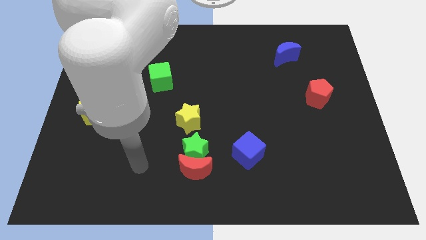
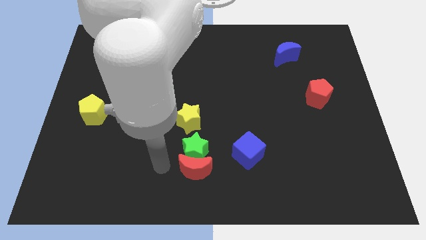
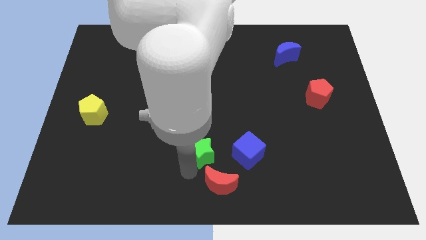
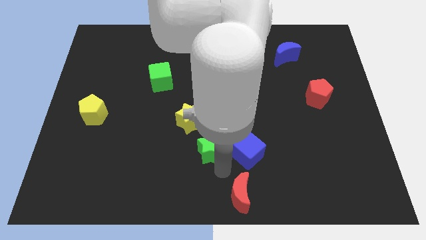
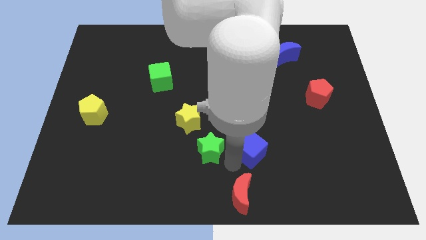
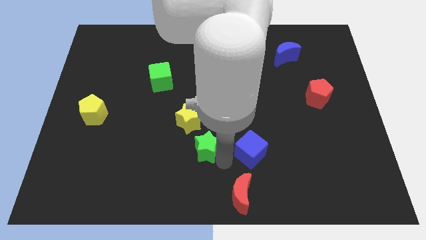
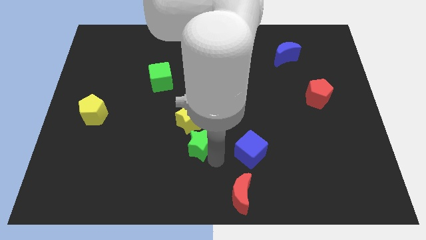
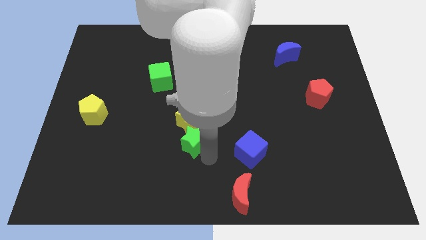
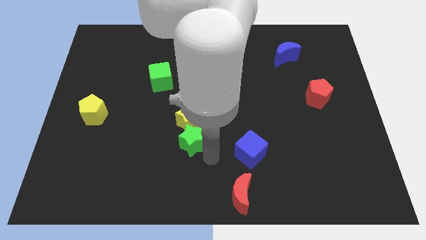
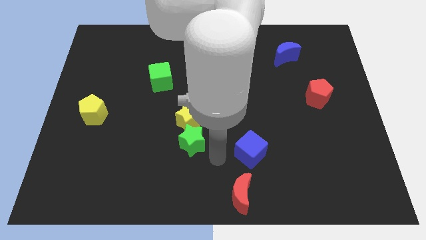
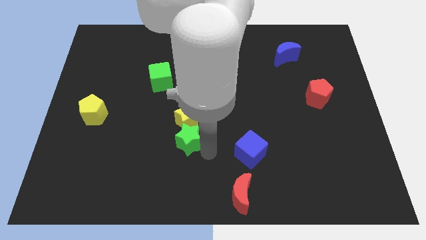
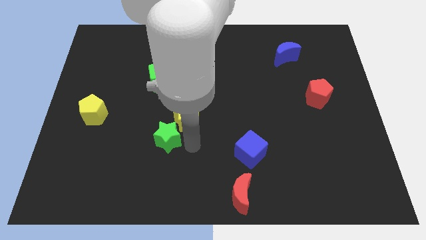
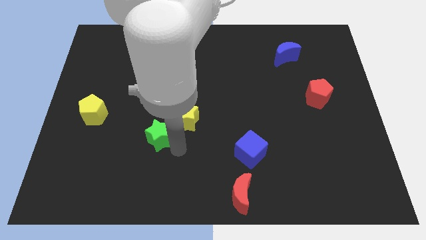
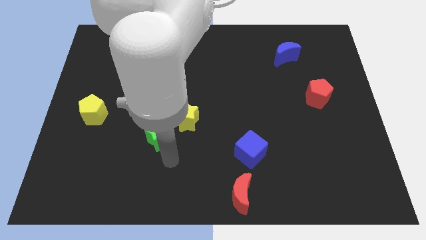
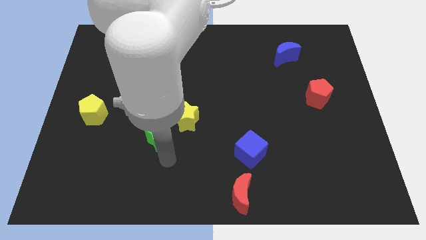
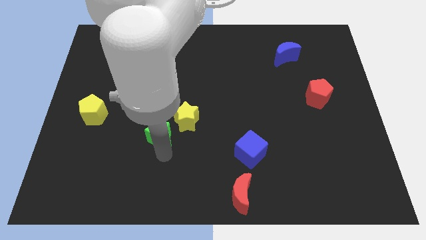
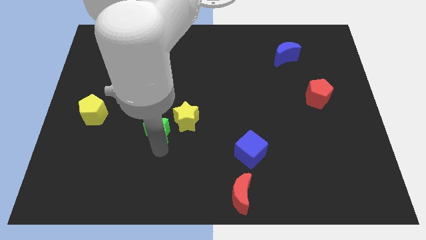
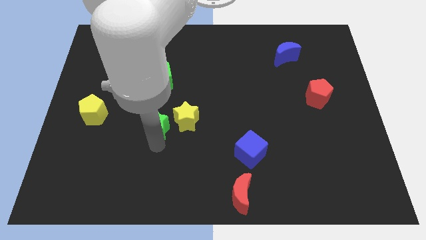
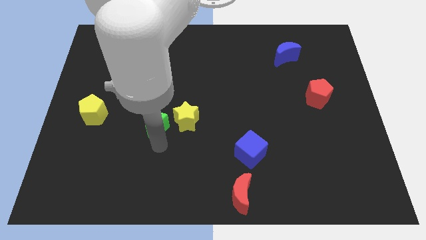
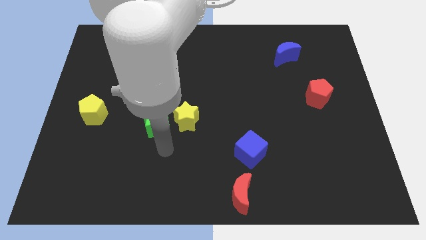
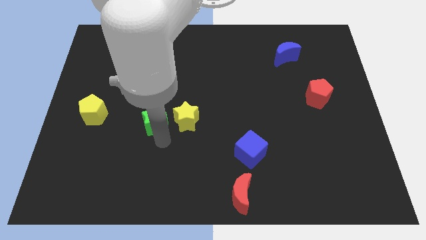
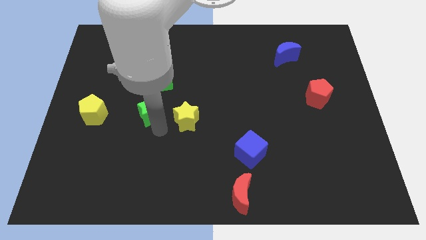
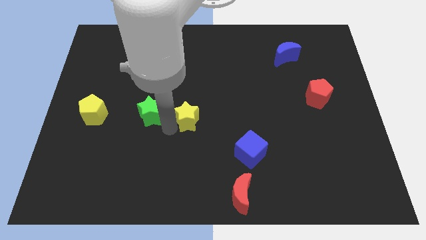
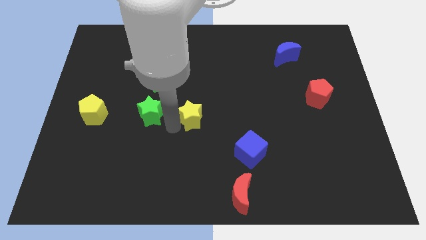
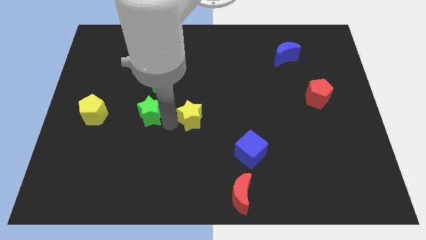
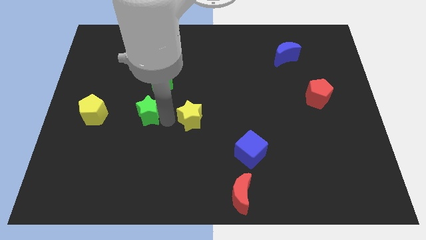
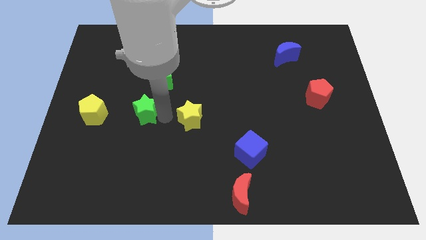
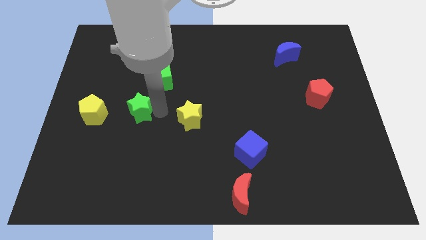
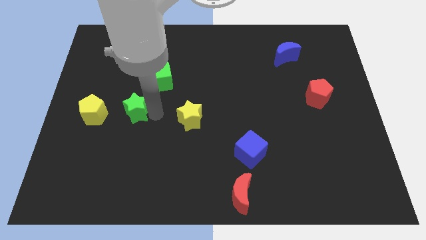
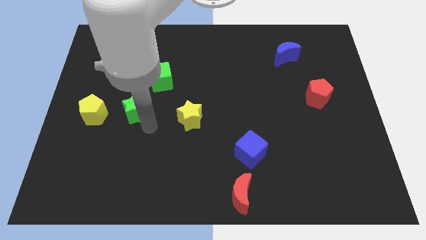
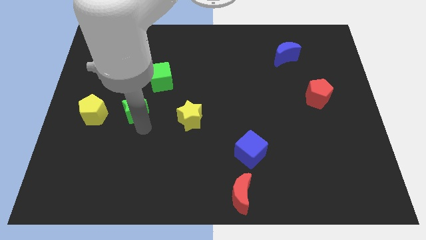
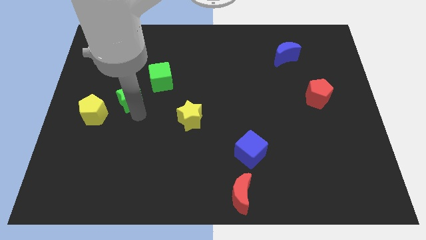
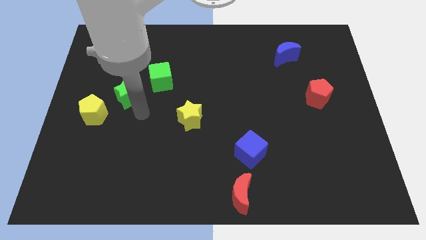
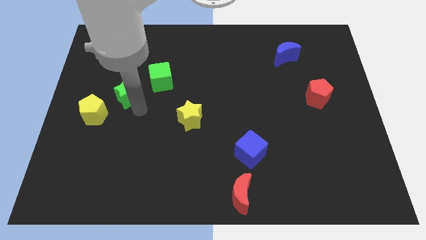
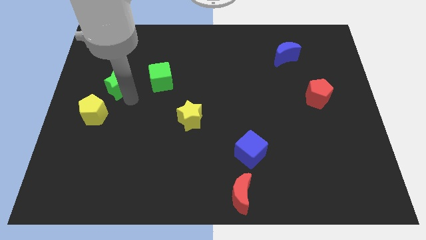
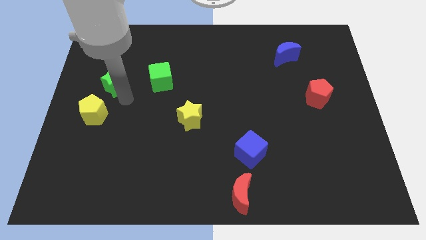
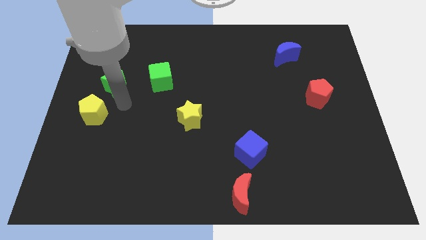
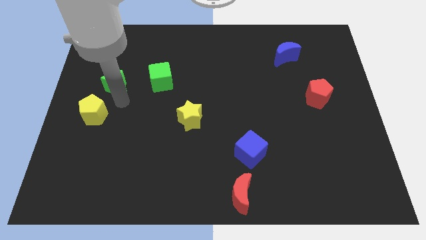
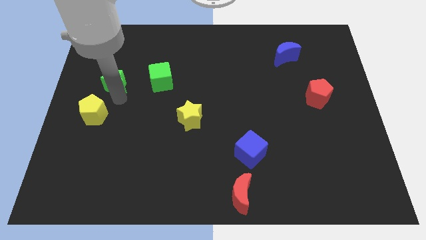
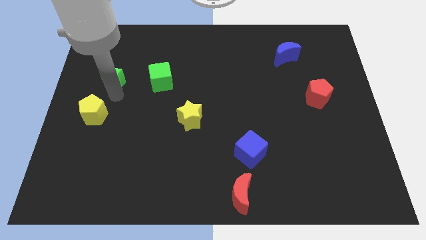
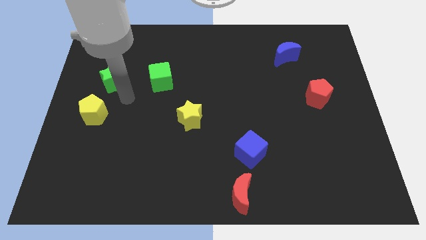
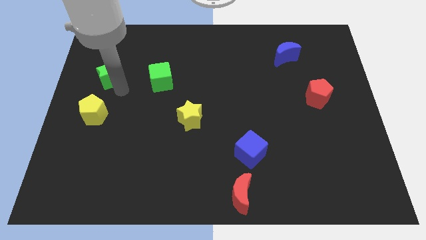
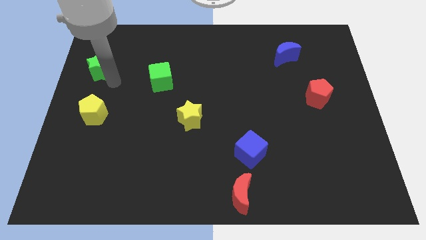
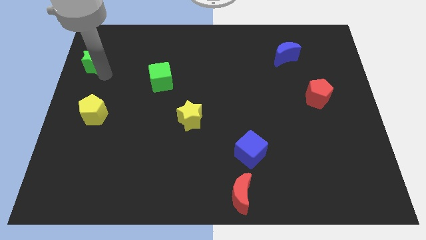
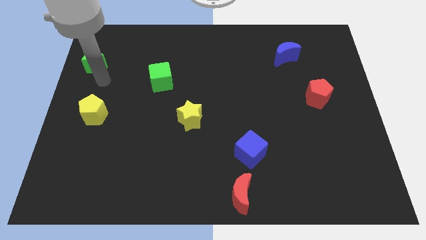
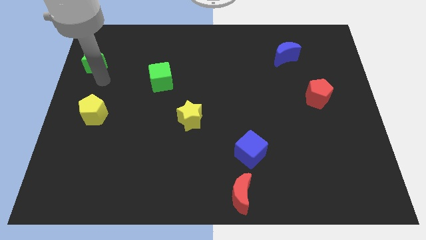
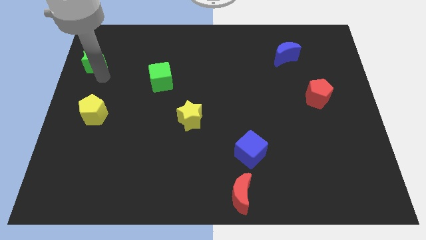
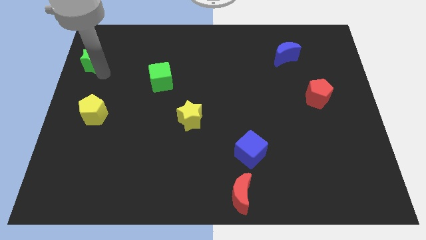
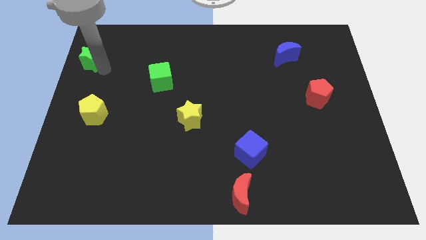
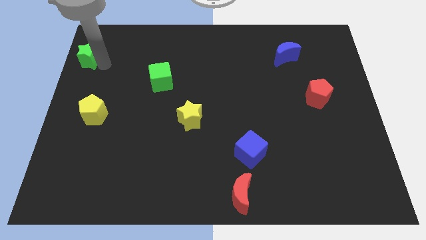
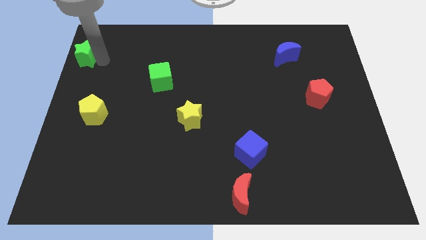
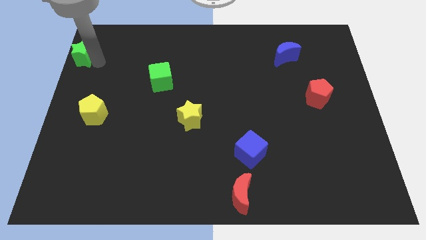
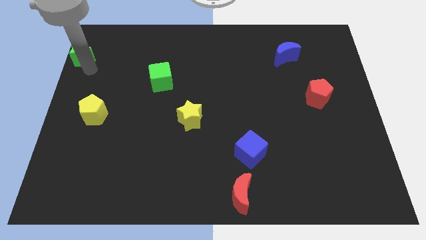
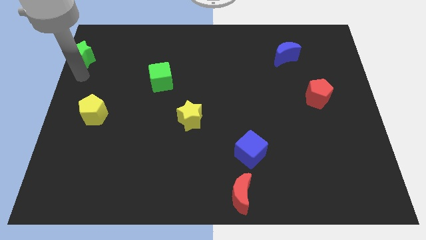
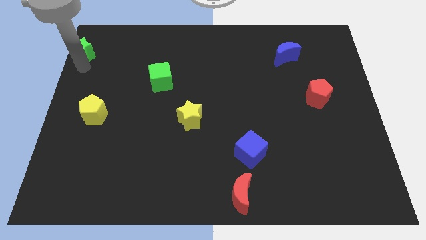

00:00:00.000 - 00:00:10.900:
slide the green star to the top left

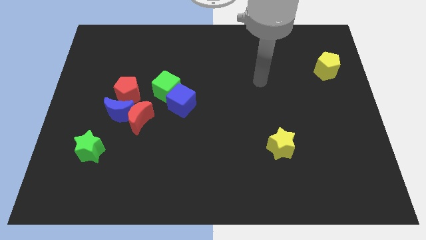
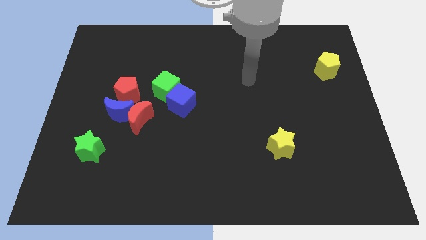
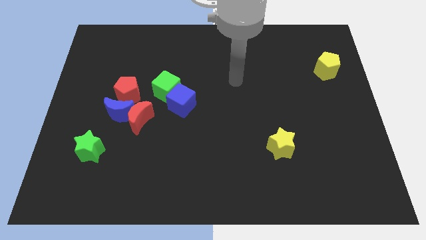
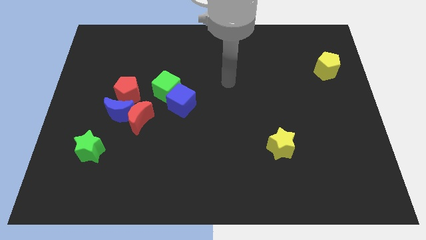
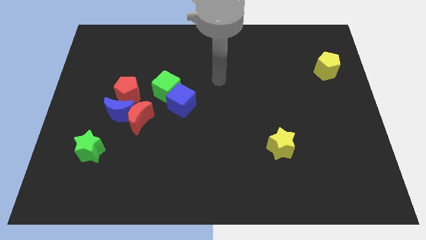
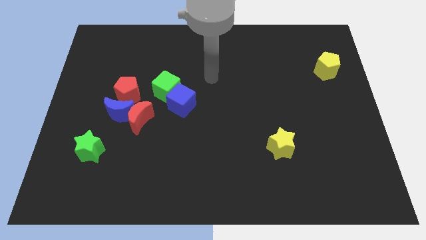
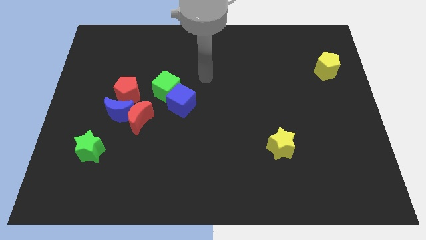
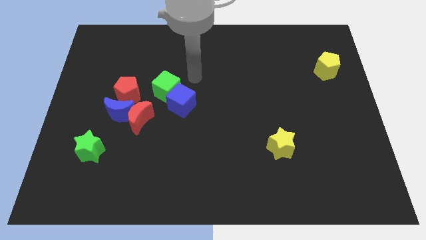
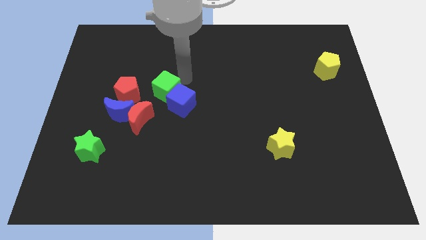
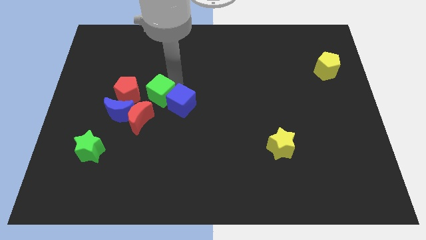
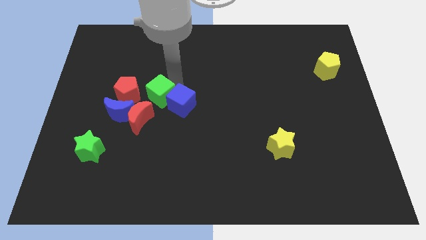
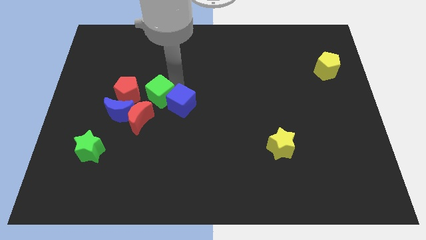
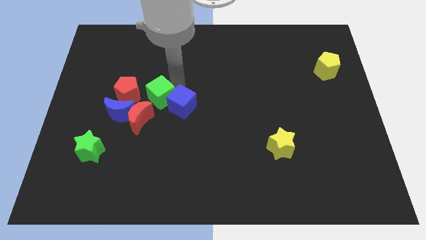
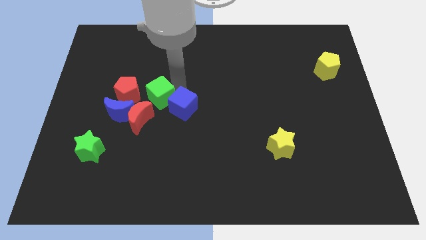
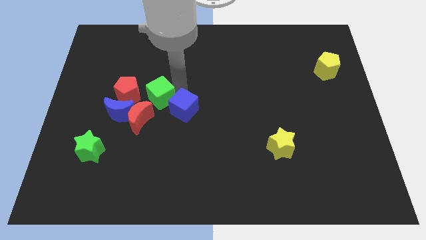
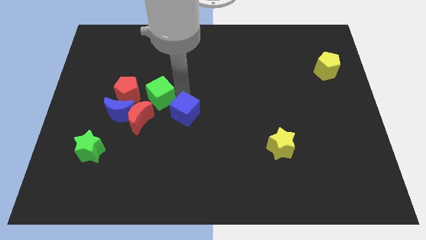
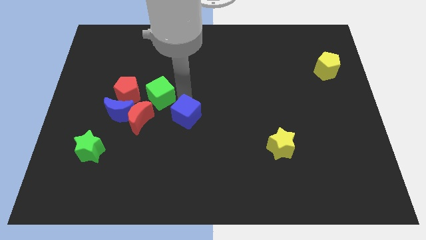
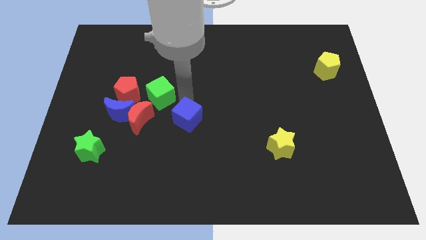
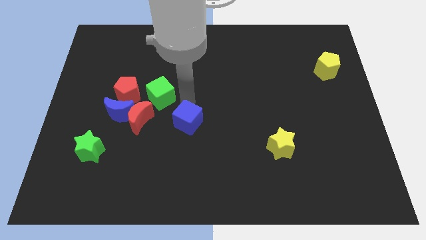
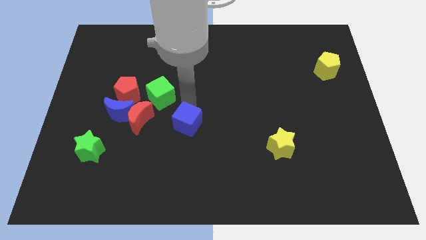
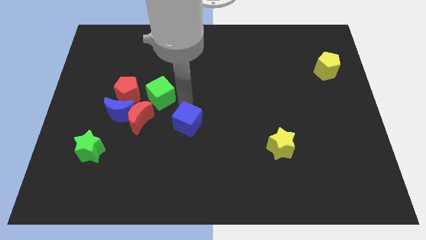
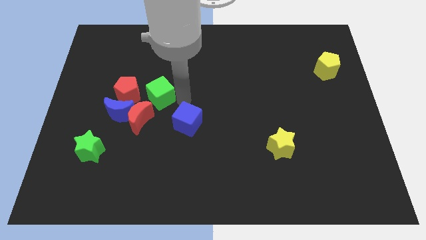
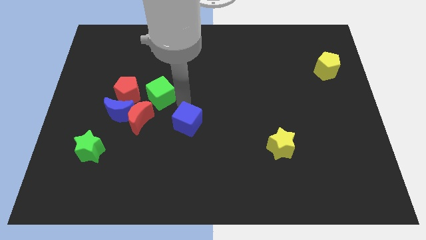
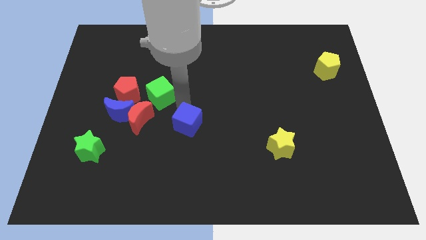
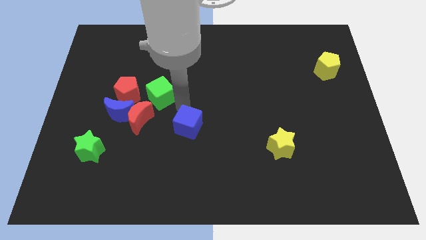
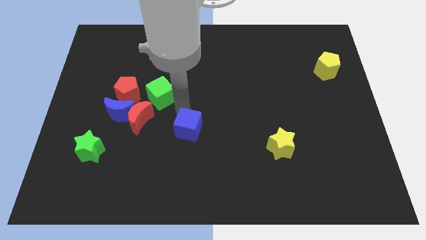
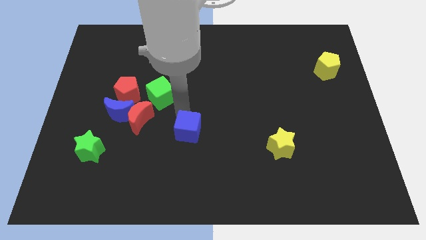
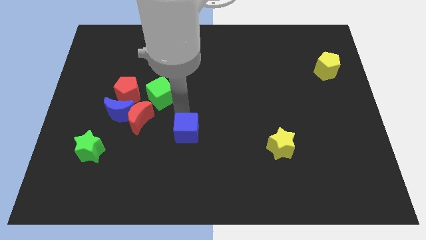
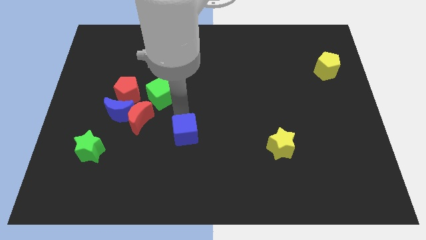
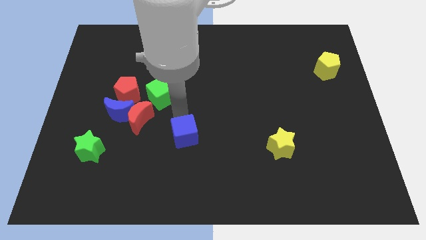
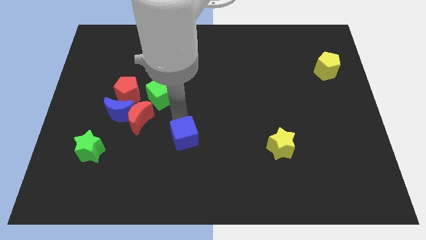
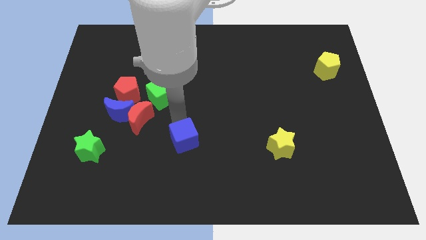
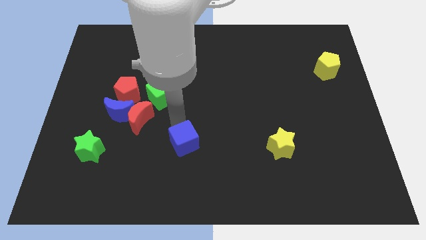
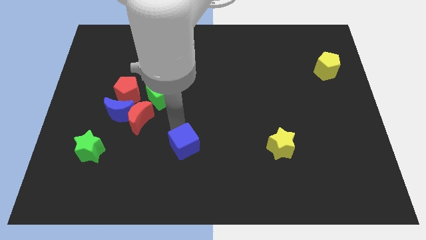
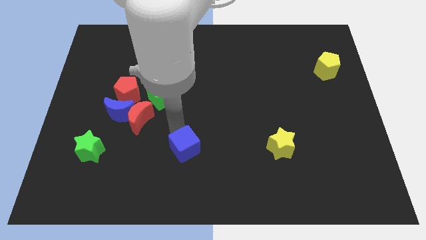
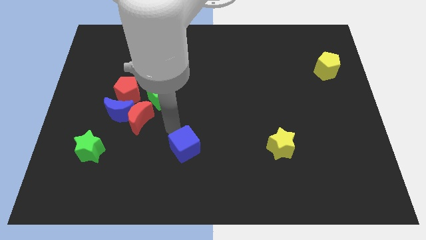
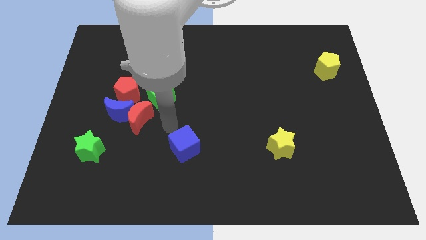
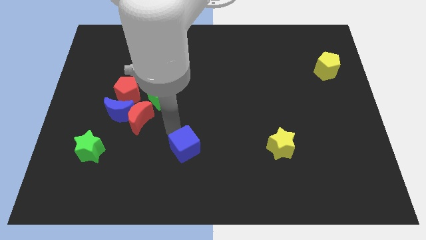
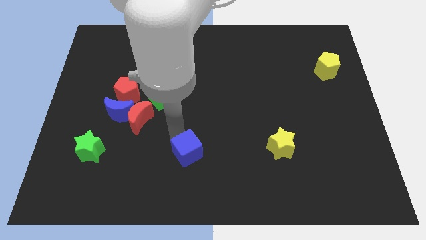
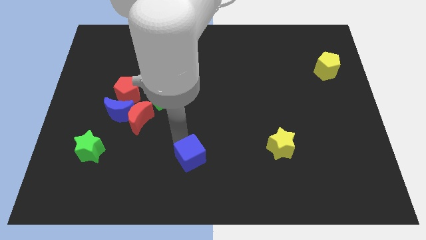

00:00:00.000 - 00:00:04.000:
move the blue cube to the bottom
